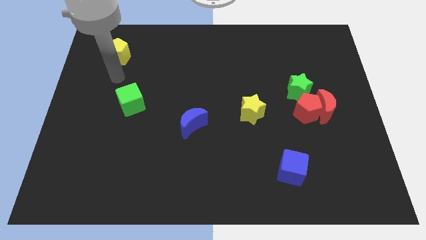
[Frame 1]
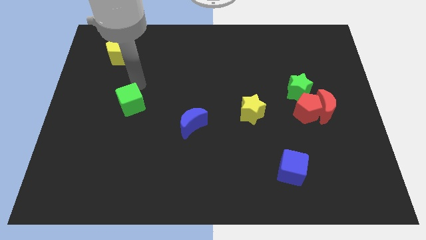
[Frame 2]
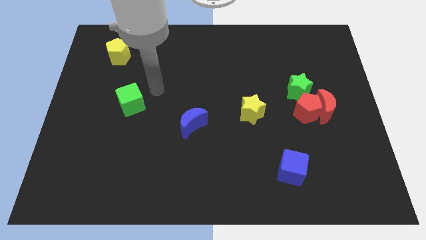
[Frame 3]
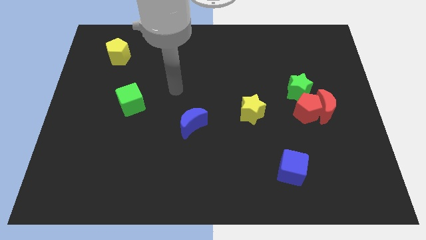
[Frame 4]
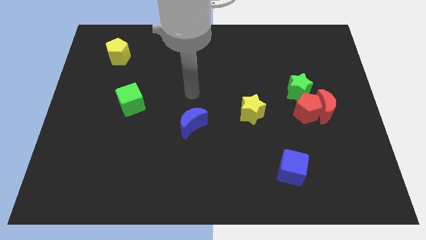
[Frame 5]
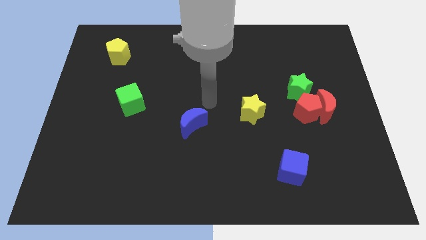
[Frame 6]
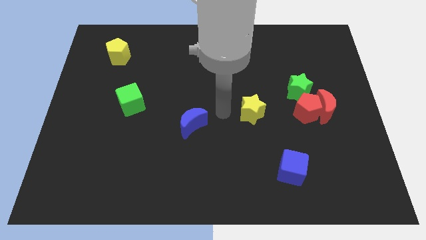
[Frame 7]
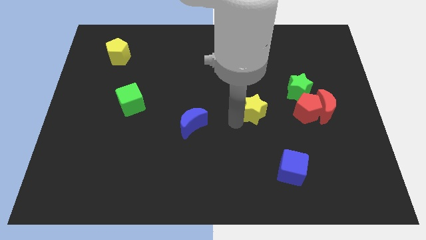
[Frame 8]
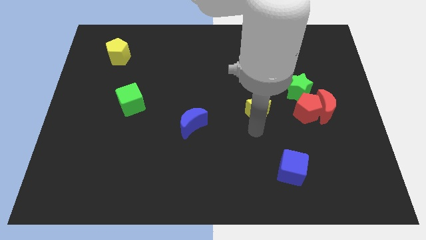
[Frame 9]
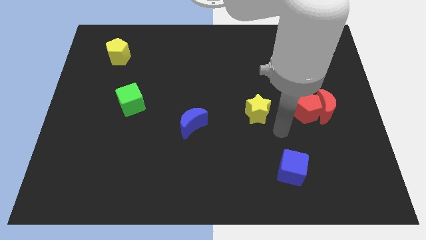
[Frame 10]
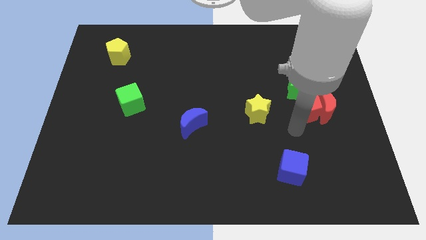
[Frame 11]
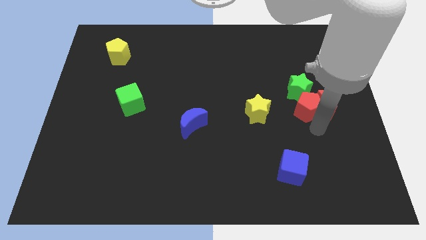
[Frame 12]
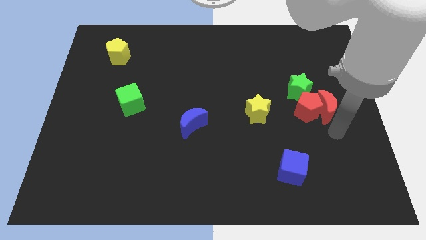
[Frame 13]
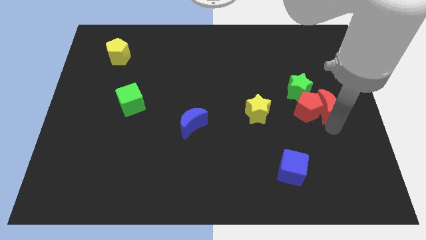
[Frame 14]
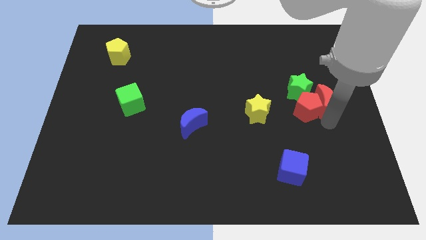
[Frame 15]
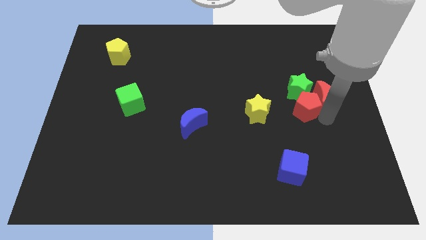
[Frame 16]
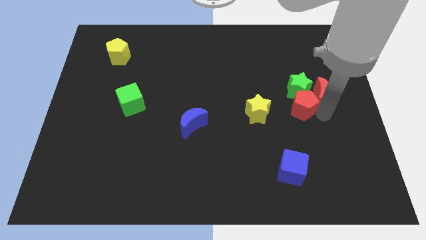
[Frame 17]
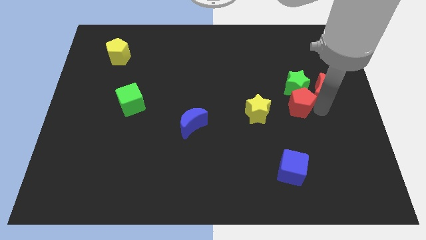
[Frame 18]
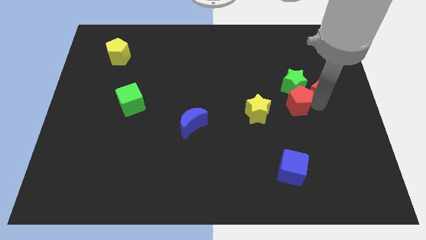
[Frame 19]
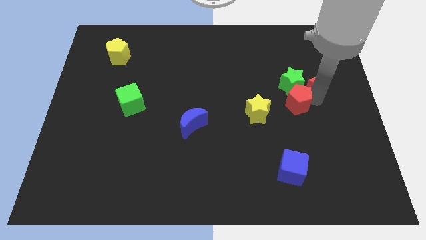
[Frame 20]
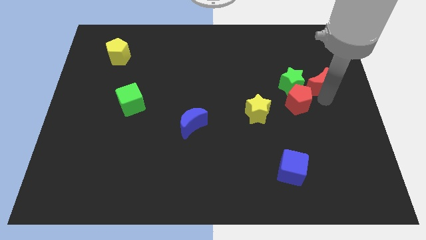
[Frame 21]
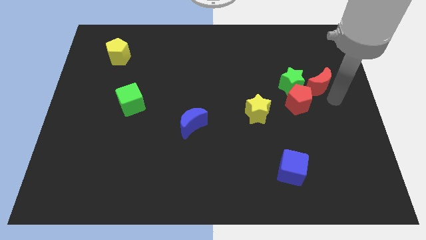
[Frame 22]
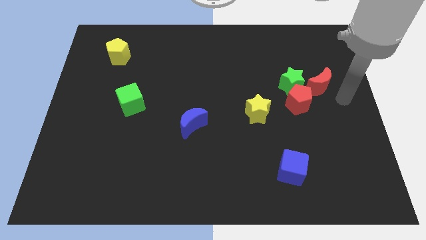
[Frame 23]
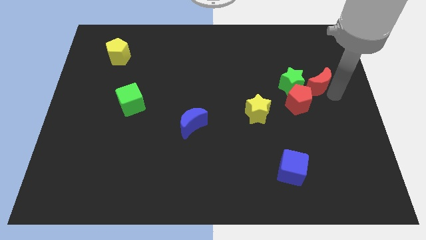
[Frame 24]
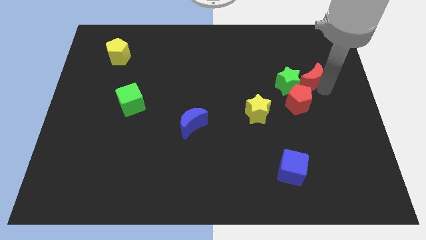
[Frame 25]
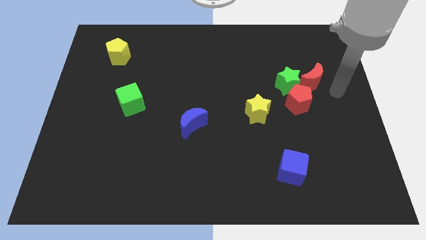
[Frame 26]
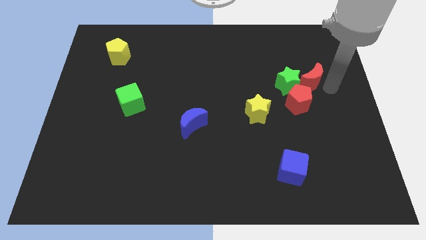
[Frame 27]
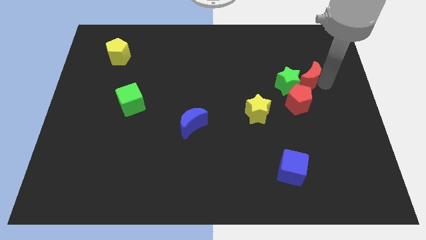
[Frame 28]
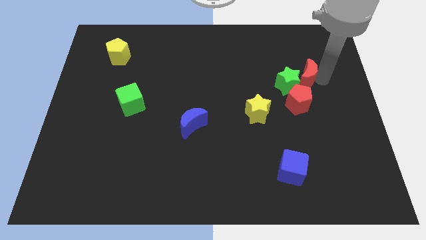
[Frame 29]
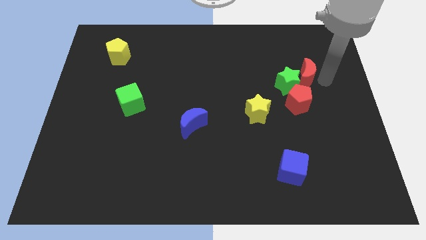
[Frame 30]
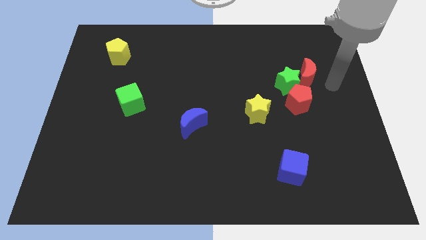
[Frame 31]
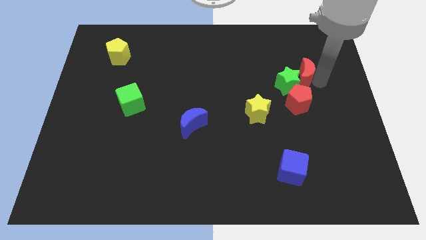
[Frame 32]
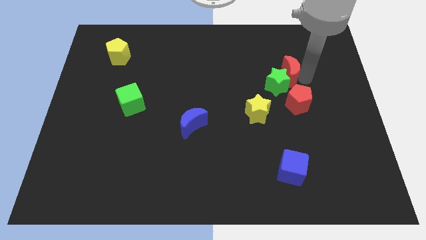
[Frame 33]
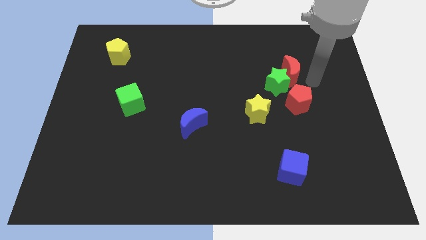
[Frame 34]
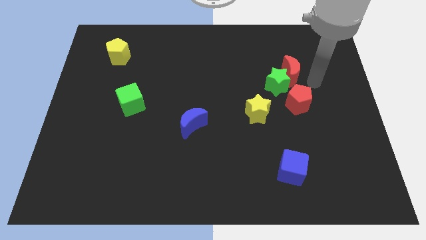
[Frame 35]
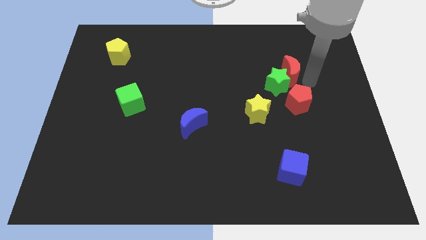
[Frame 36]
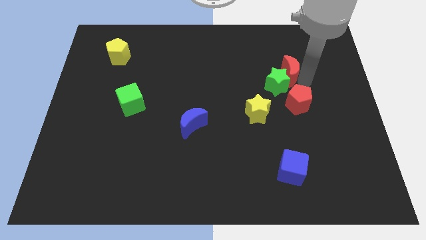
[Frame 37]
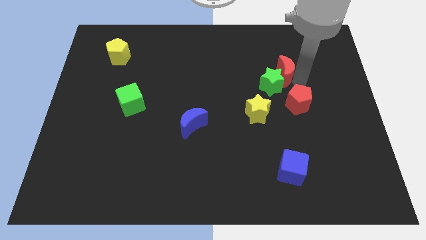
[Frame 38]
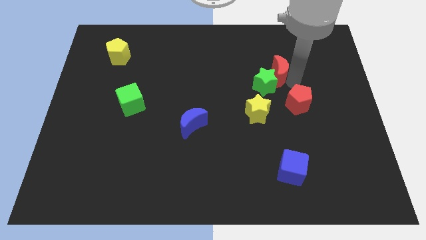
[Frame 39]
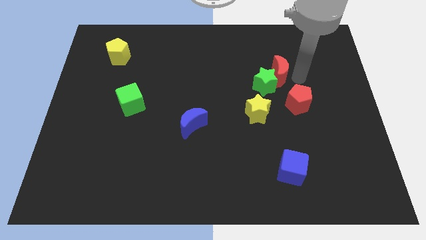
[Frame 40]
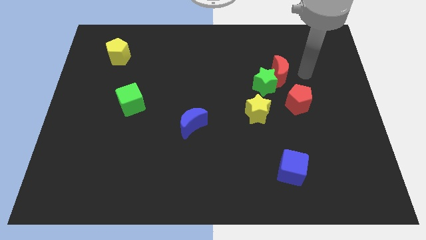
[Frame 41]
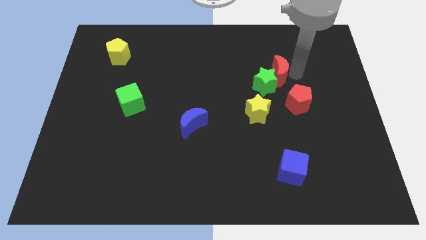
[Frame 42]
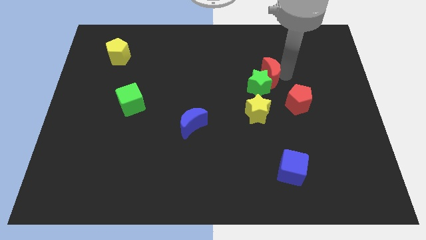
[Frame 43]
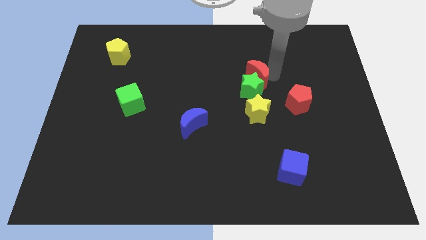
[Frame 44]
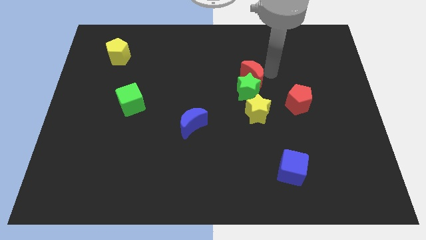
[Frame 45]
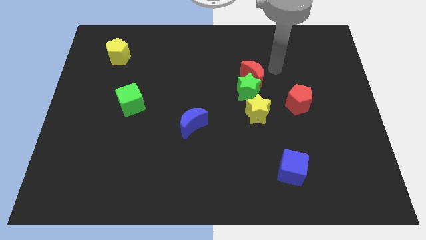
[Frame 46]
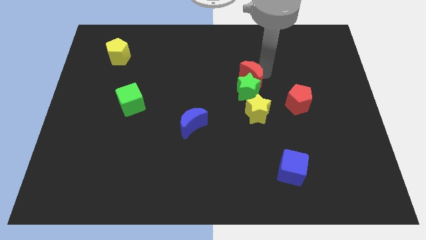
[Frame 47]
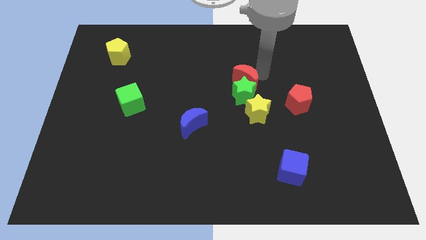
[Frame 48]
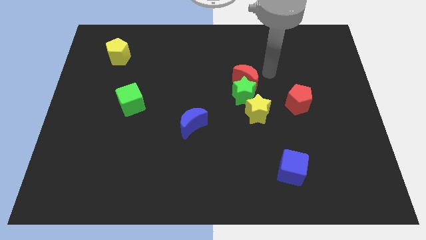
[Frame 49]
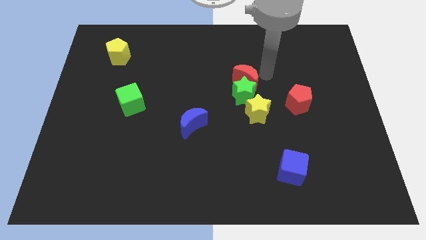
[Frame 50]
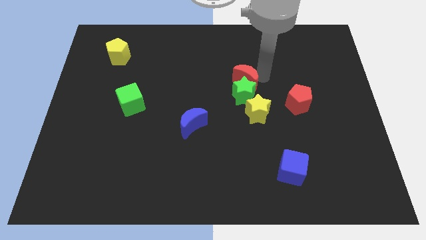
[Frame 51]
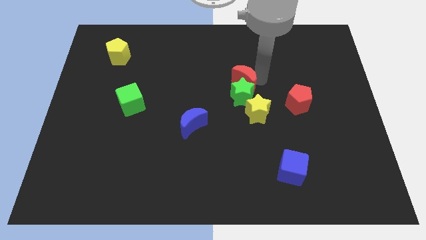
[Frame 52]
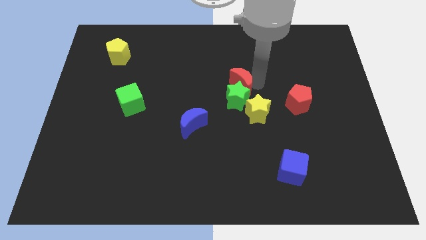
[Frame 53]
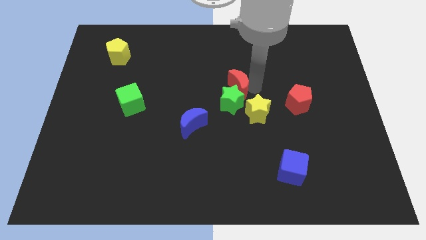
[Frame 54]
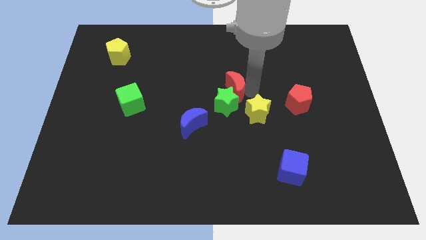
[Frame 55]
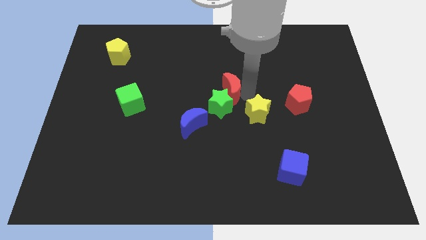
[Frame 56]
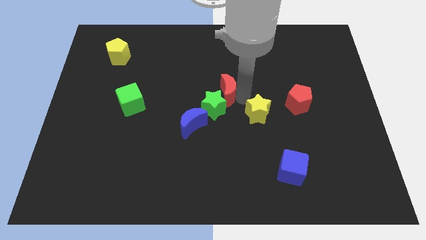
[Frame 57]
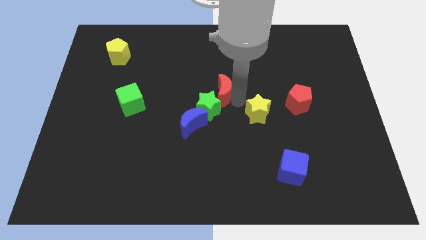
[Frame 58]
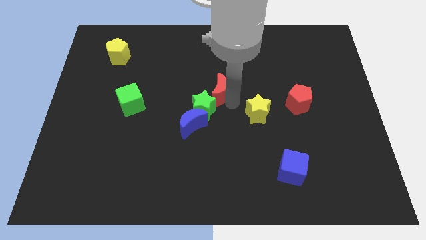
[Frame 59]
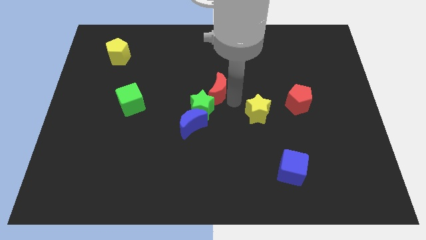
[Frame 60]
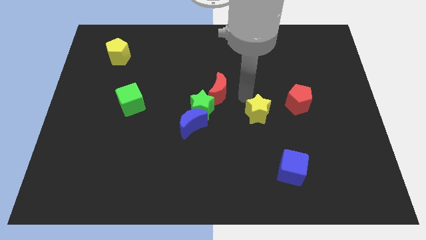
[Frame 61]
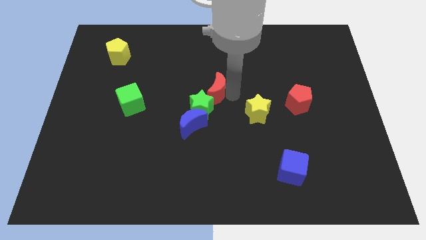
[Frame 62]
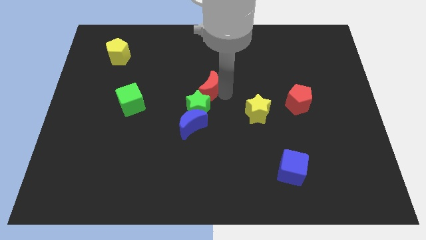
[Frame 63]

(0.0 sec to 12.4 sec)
put the red moon to the top side of the blue moon

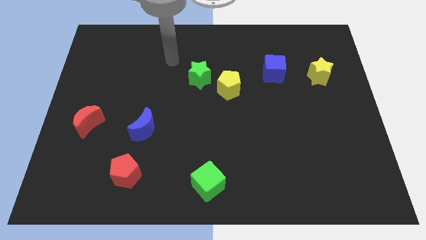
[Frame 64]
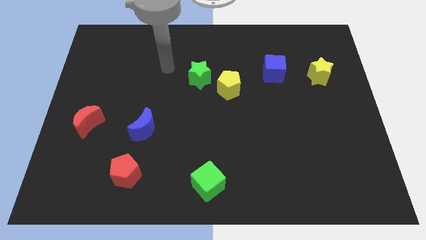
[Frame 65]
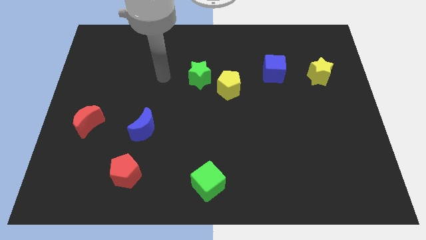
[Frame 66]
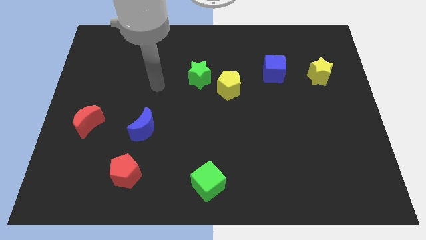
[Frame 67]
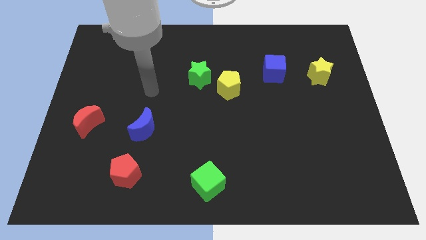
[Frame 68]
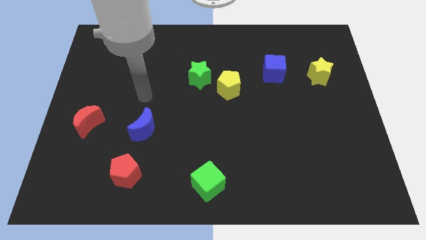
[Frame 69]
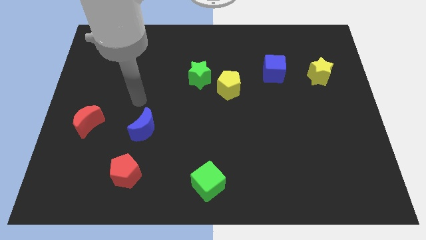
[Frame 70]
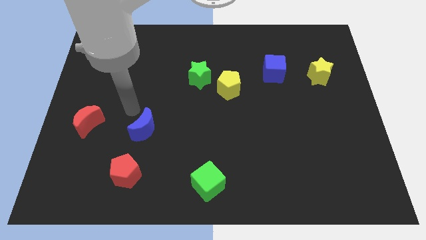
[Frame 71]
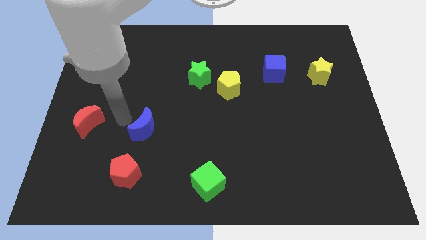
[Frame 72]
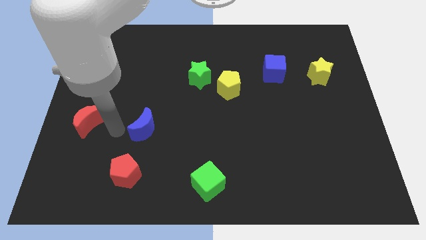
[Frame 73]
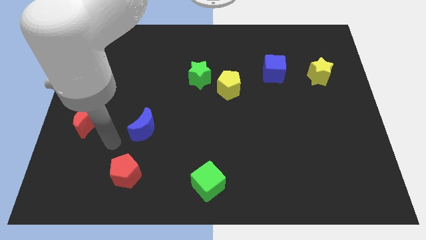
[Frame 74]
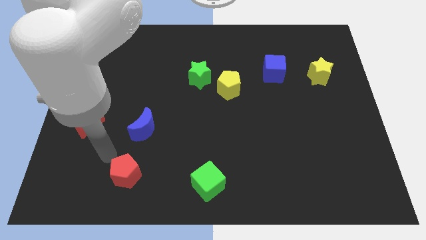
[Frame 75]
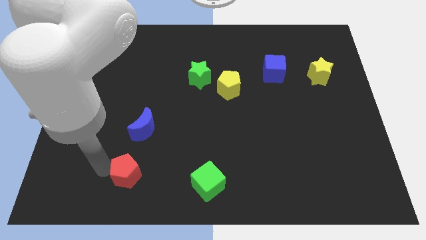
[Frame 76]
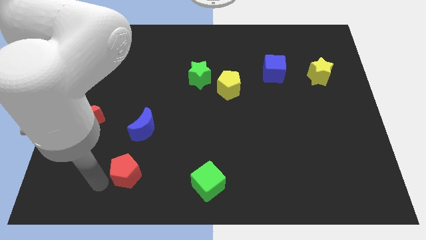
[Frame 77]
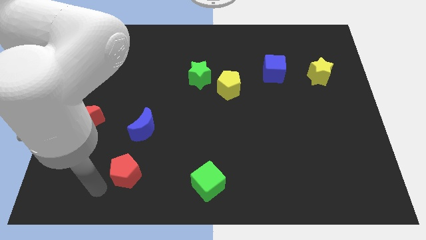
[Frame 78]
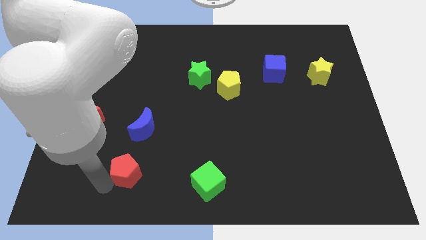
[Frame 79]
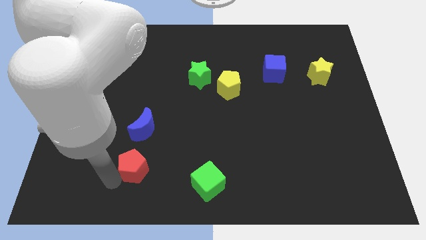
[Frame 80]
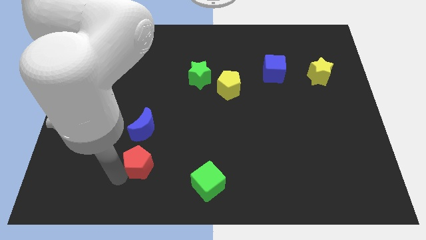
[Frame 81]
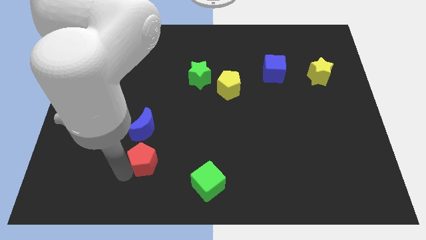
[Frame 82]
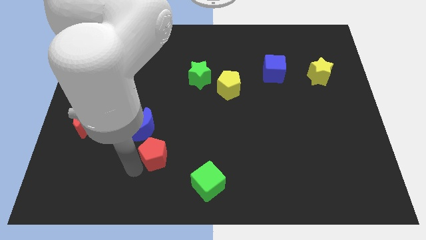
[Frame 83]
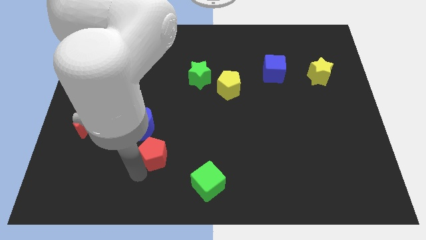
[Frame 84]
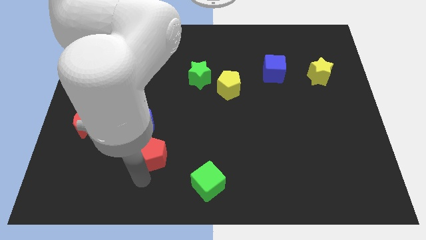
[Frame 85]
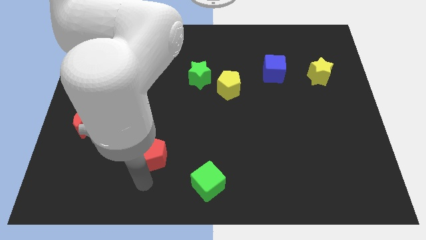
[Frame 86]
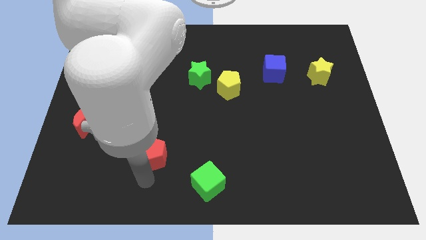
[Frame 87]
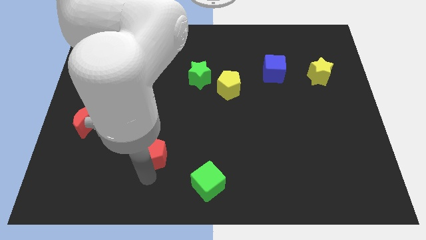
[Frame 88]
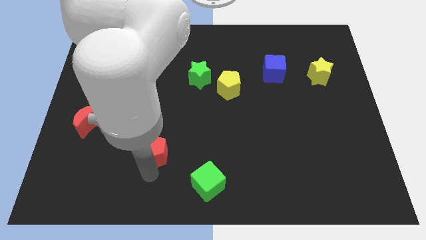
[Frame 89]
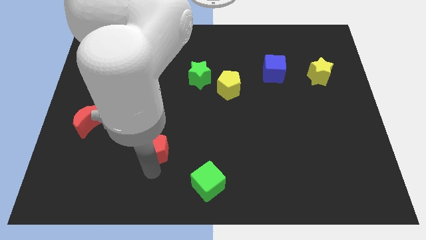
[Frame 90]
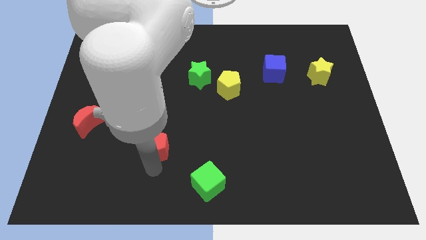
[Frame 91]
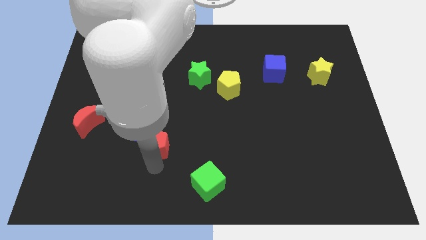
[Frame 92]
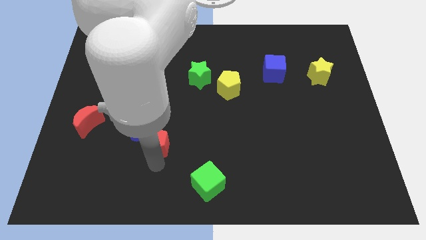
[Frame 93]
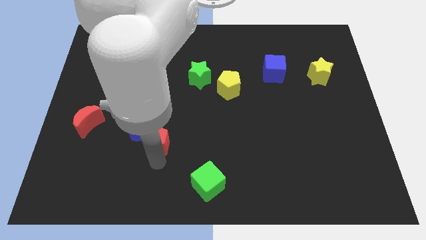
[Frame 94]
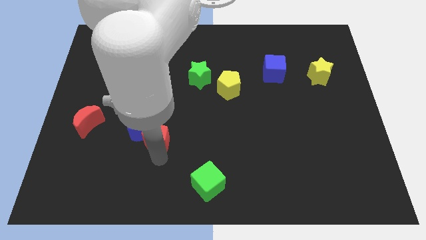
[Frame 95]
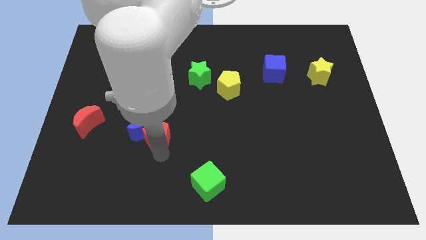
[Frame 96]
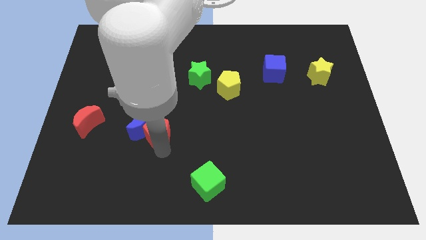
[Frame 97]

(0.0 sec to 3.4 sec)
push the red pentagon to the top right side of the blue moon
